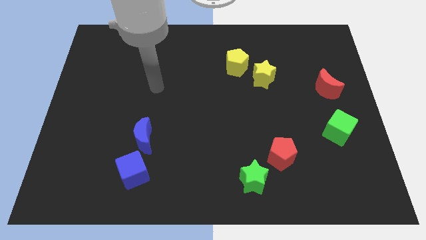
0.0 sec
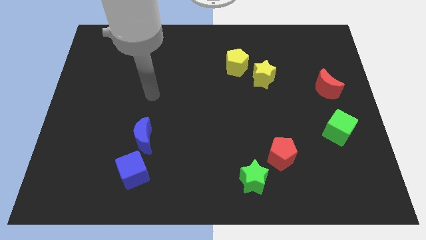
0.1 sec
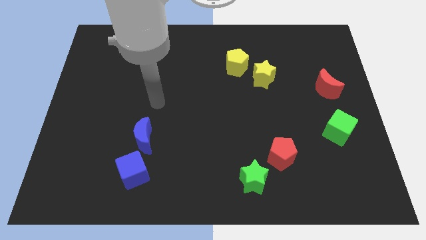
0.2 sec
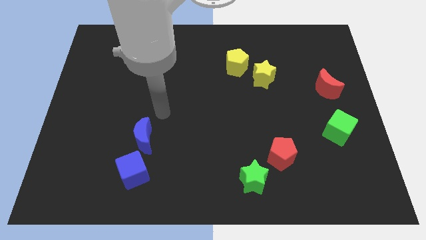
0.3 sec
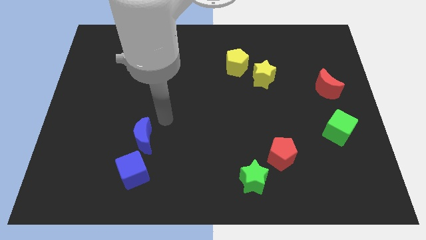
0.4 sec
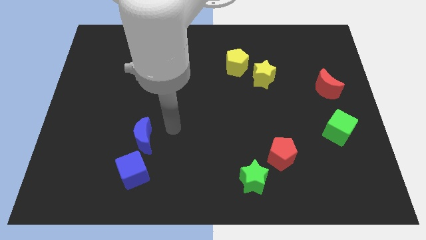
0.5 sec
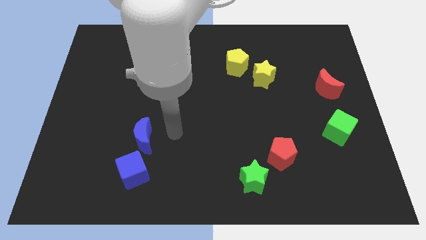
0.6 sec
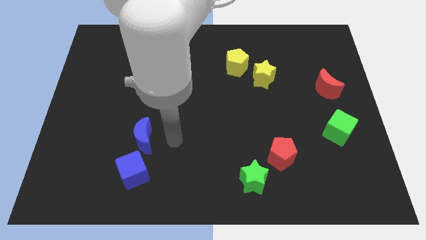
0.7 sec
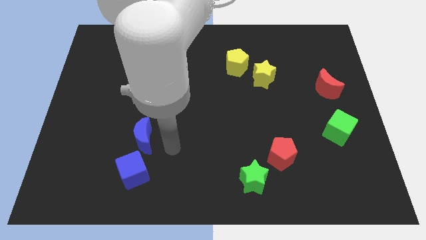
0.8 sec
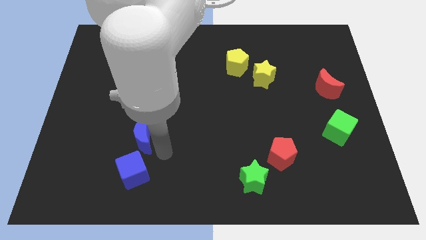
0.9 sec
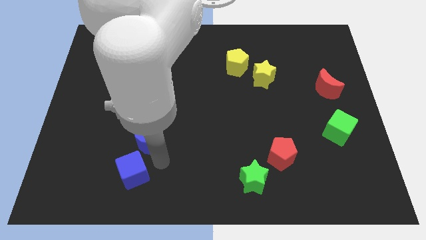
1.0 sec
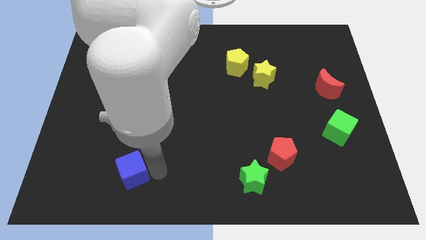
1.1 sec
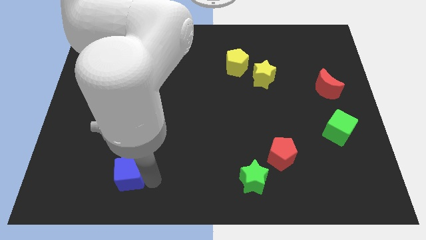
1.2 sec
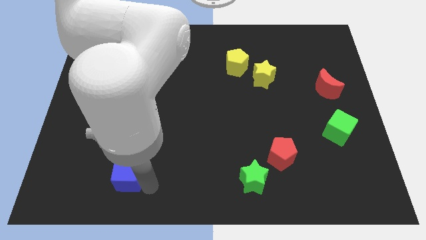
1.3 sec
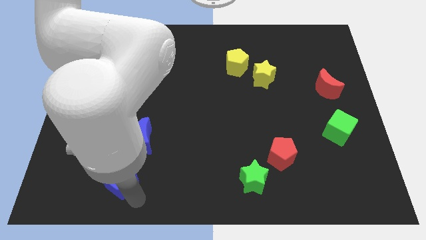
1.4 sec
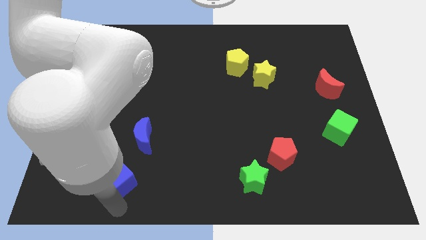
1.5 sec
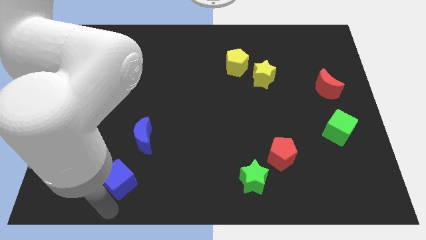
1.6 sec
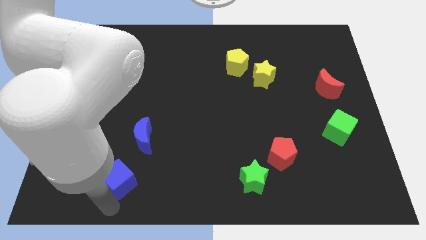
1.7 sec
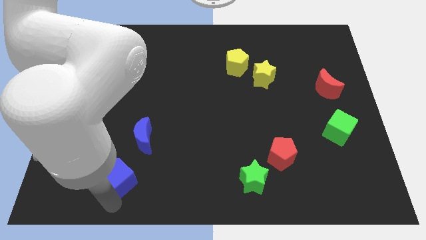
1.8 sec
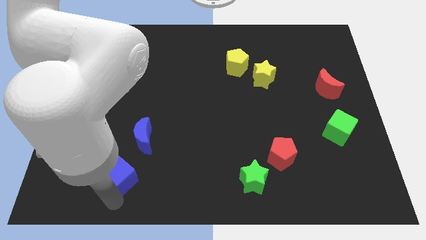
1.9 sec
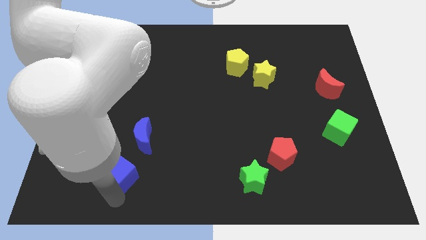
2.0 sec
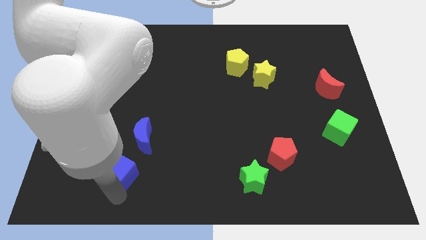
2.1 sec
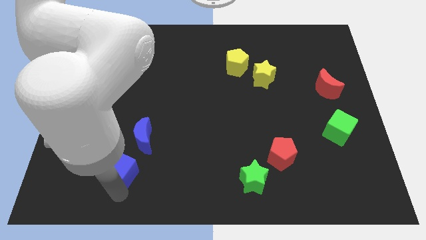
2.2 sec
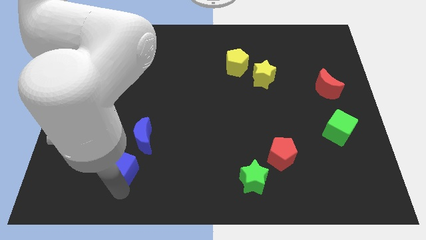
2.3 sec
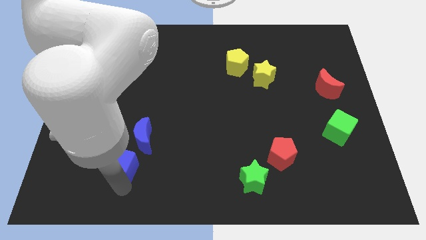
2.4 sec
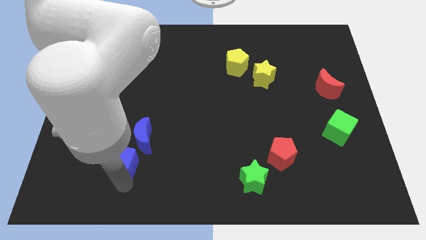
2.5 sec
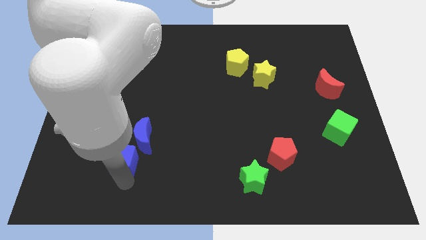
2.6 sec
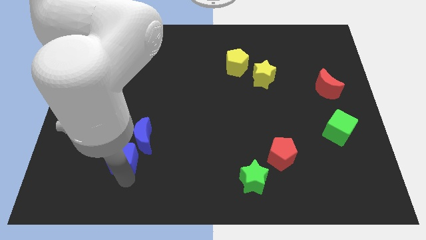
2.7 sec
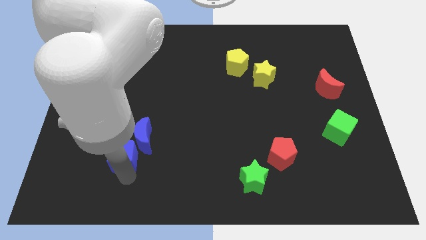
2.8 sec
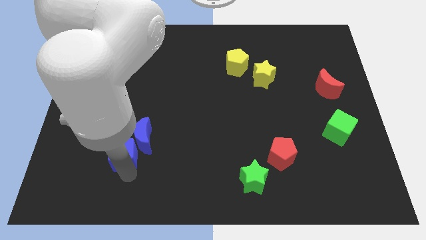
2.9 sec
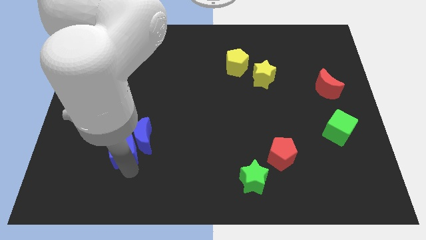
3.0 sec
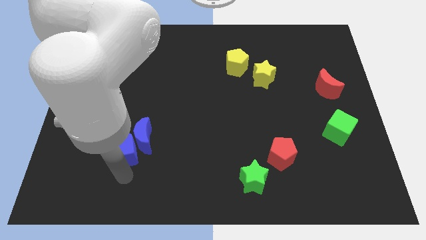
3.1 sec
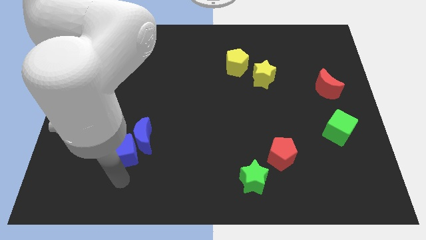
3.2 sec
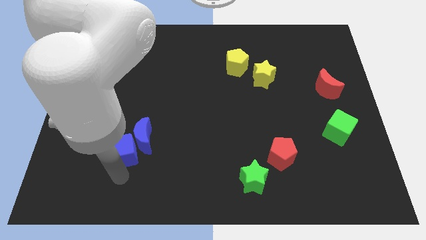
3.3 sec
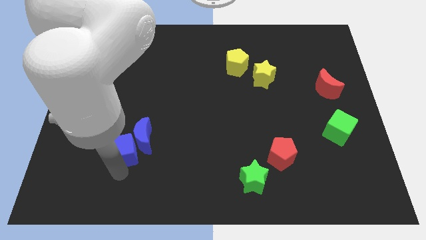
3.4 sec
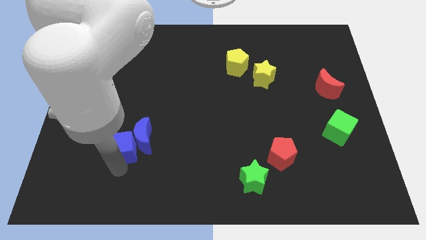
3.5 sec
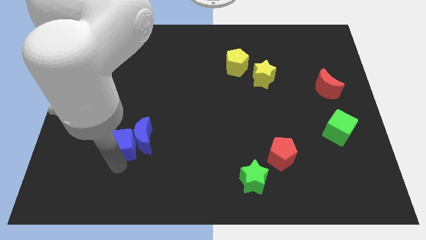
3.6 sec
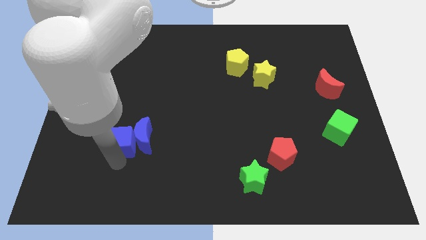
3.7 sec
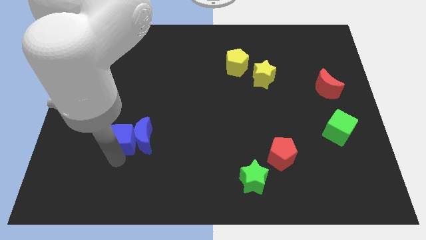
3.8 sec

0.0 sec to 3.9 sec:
slightly move the blue cube up

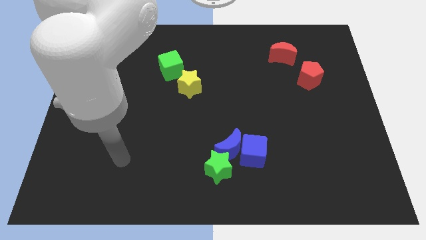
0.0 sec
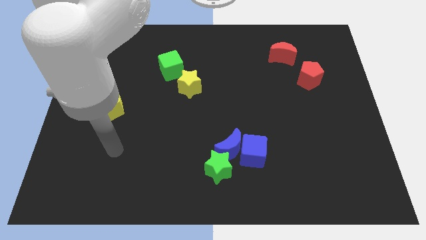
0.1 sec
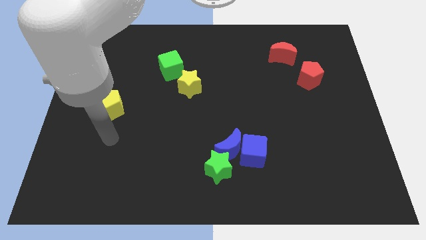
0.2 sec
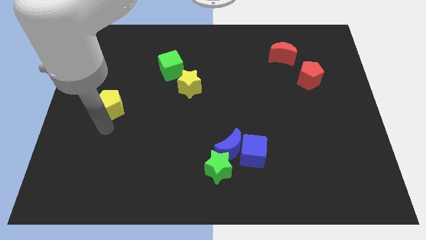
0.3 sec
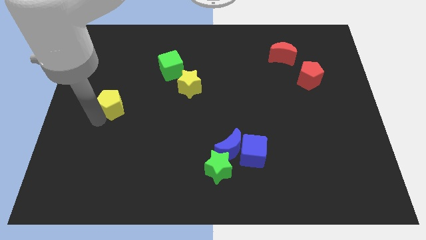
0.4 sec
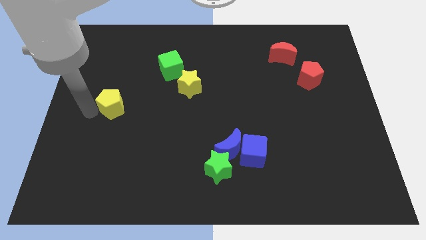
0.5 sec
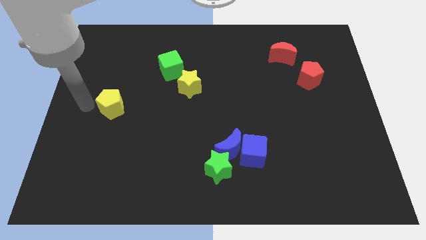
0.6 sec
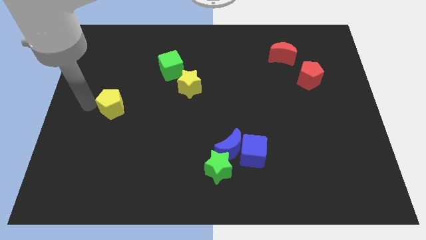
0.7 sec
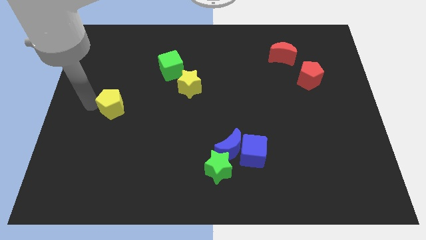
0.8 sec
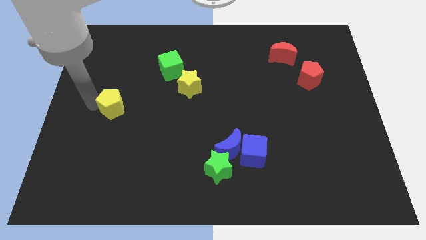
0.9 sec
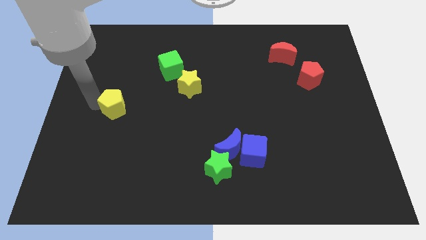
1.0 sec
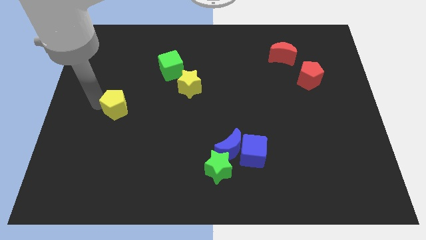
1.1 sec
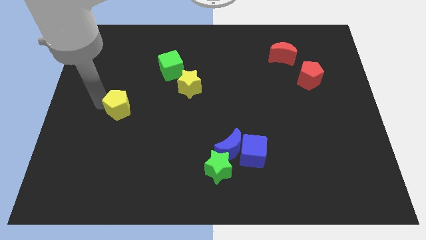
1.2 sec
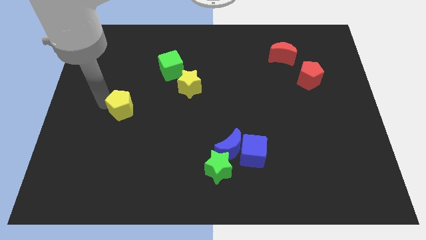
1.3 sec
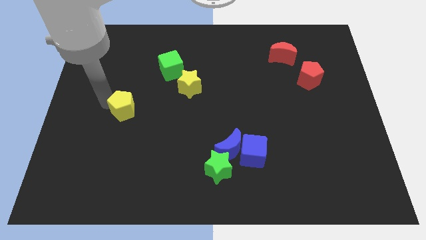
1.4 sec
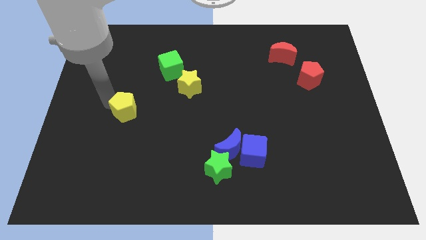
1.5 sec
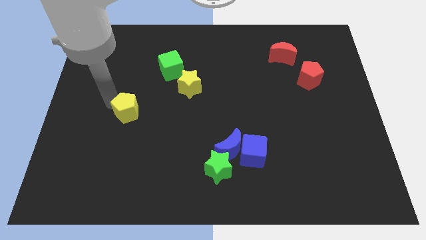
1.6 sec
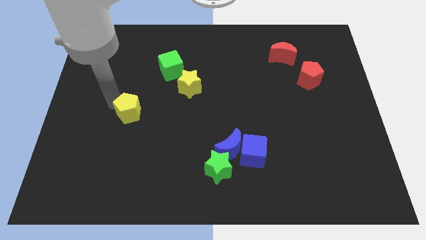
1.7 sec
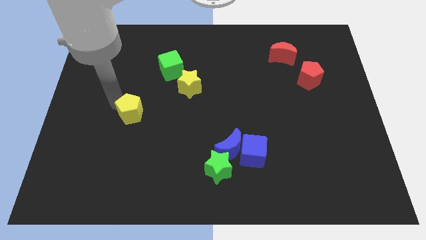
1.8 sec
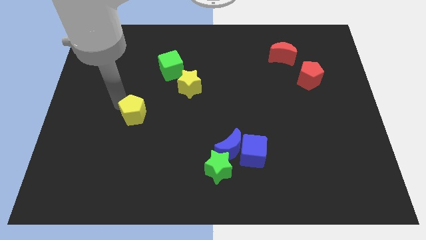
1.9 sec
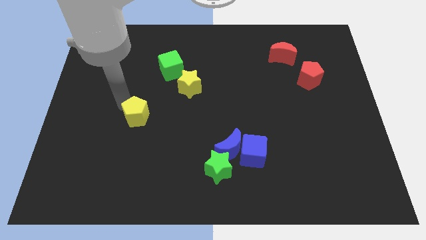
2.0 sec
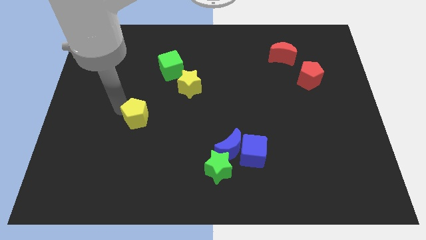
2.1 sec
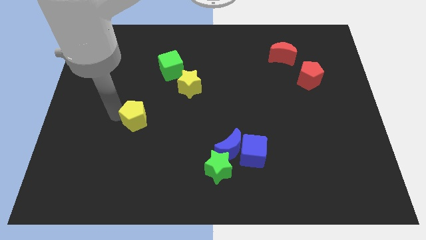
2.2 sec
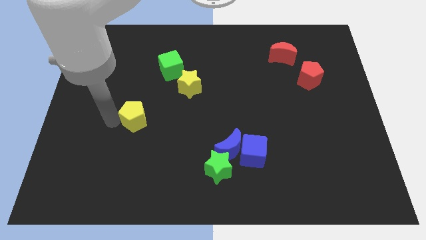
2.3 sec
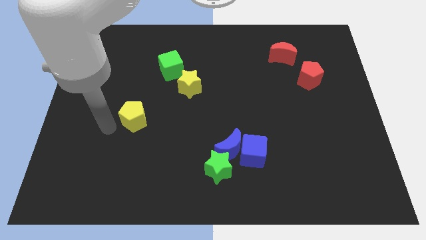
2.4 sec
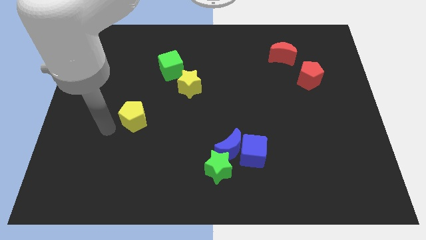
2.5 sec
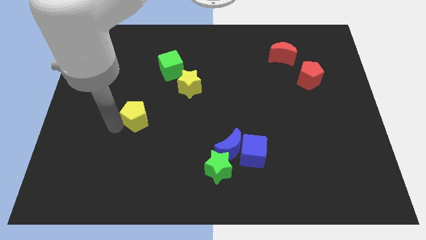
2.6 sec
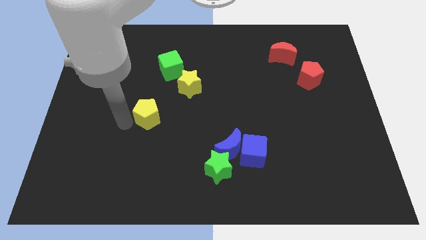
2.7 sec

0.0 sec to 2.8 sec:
slide the yellow pentagon right a bit

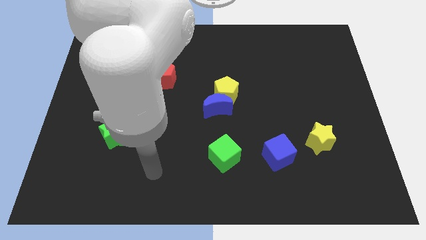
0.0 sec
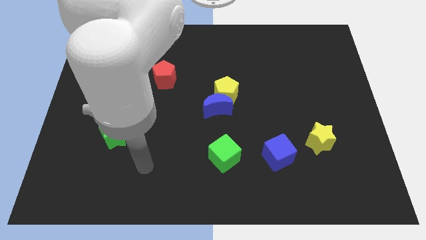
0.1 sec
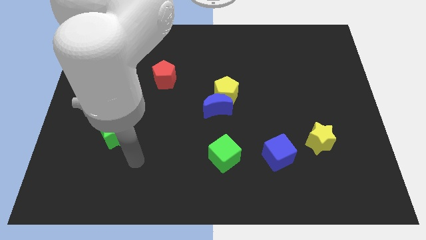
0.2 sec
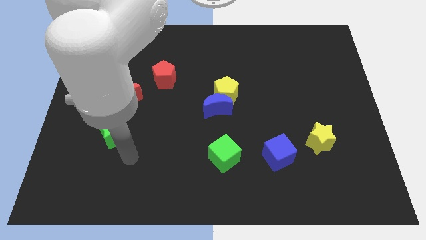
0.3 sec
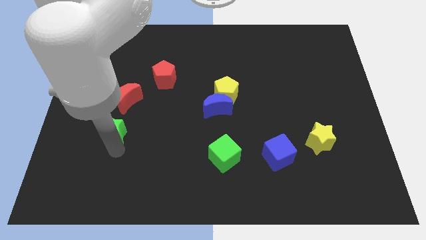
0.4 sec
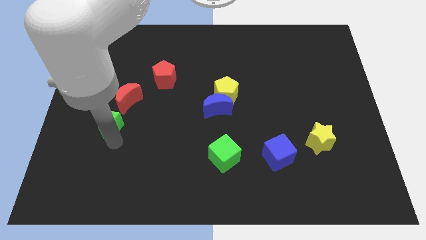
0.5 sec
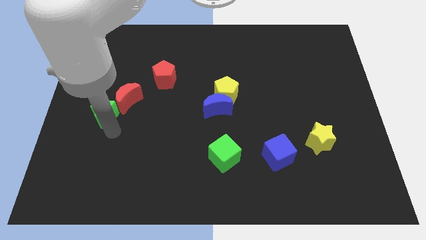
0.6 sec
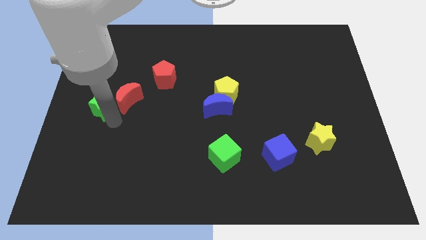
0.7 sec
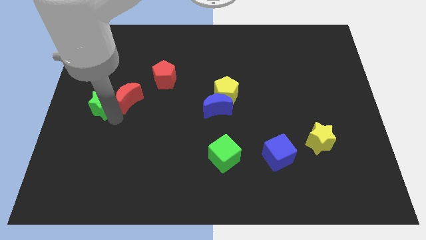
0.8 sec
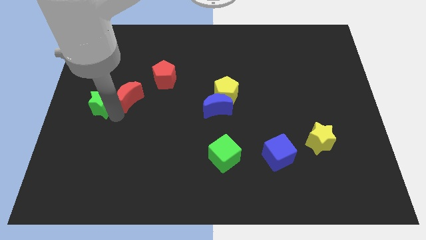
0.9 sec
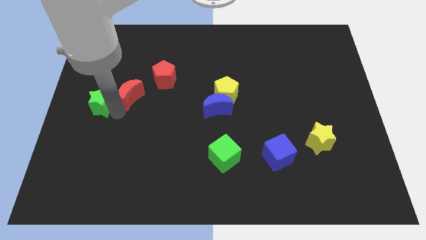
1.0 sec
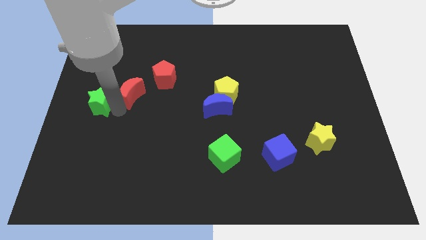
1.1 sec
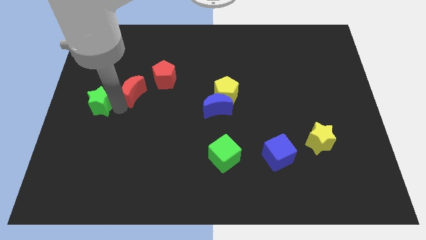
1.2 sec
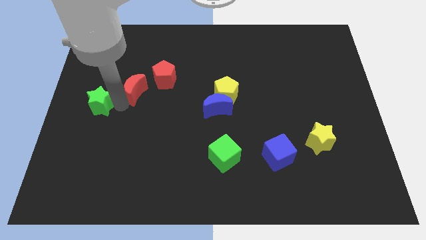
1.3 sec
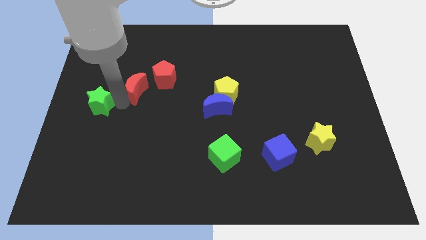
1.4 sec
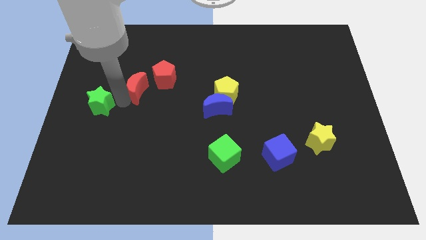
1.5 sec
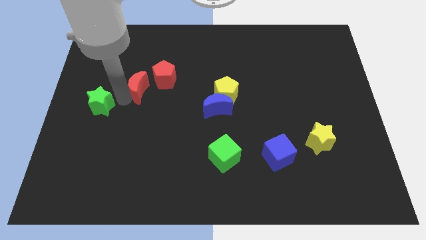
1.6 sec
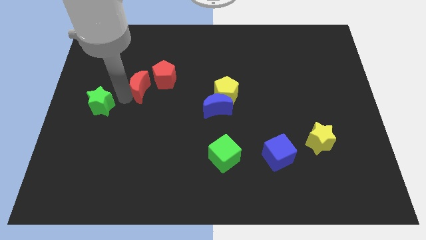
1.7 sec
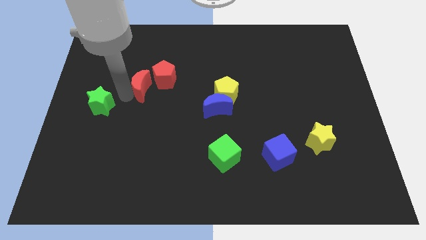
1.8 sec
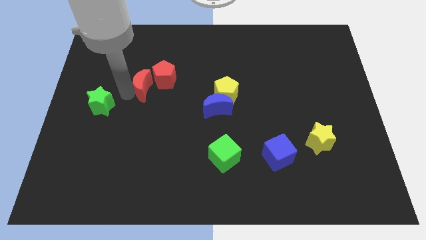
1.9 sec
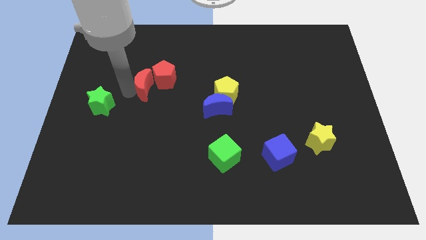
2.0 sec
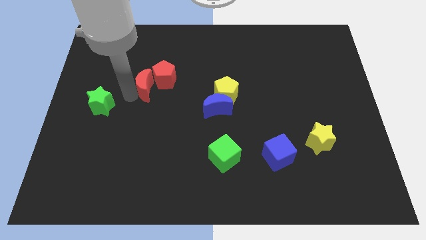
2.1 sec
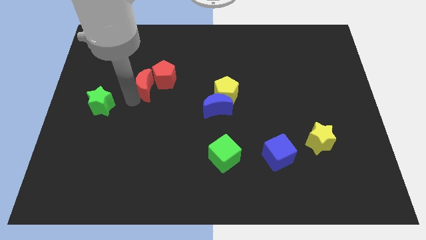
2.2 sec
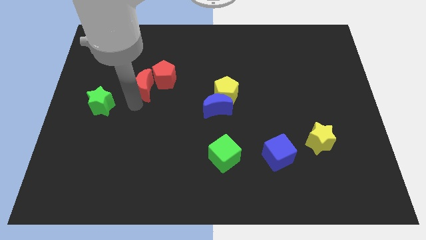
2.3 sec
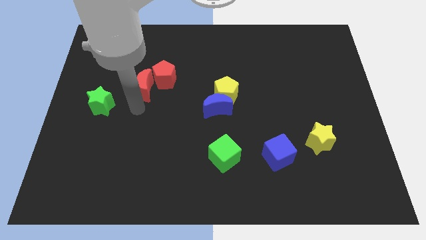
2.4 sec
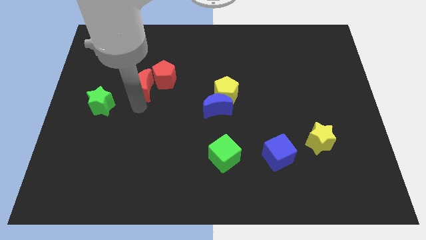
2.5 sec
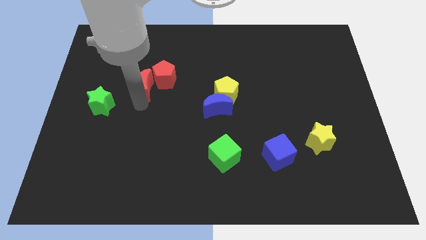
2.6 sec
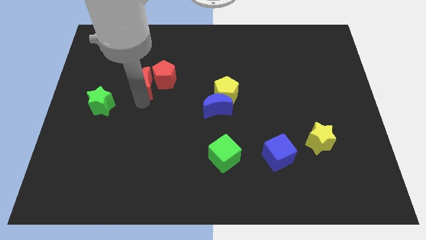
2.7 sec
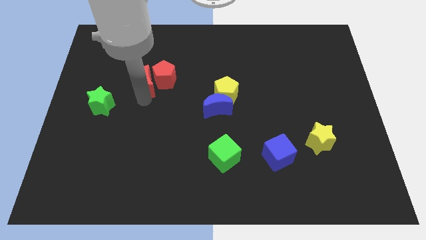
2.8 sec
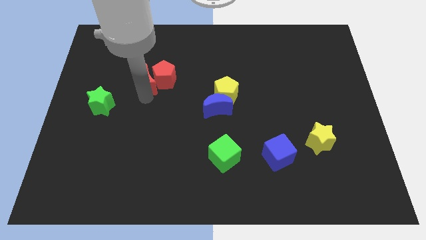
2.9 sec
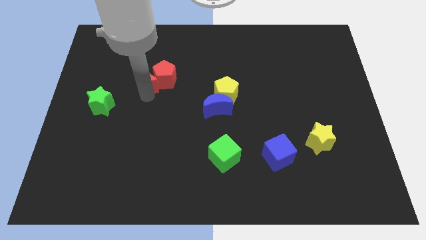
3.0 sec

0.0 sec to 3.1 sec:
slide the red moon up and then to the right a little bit
